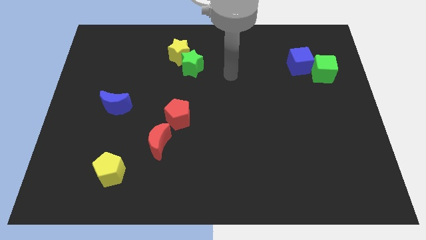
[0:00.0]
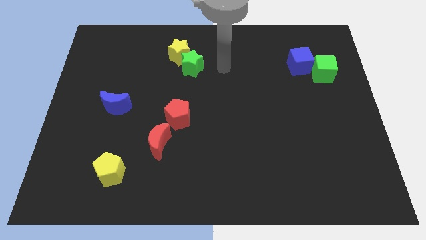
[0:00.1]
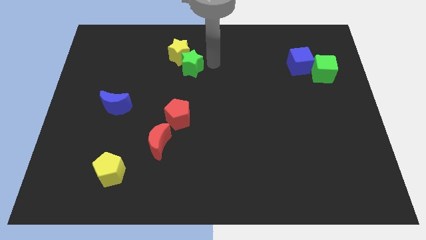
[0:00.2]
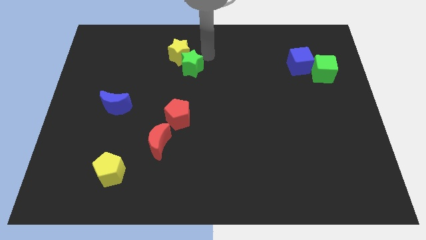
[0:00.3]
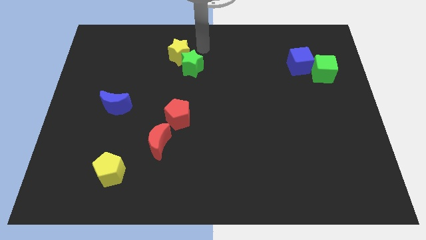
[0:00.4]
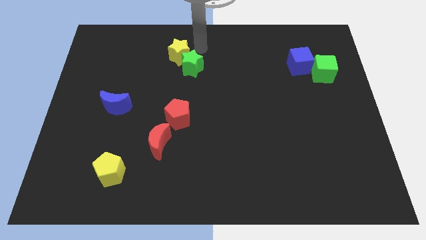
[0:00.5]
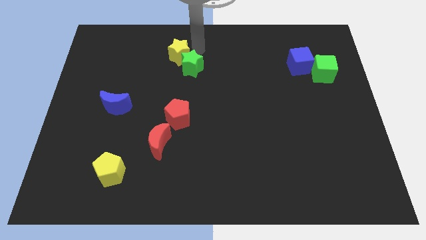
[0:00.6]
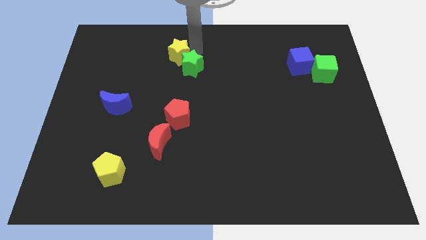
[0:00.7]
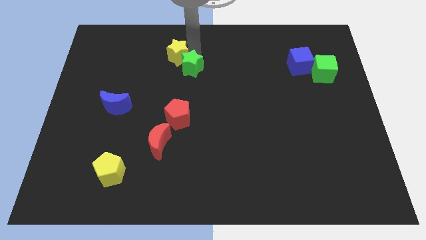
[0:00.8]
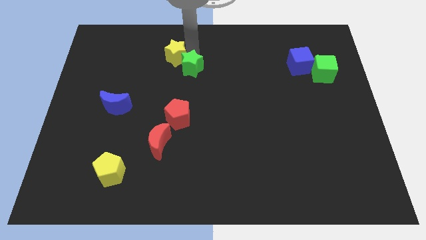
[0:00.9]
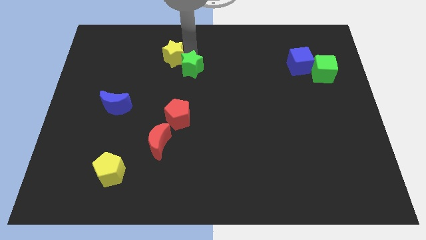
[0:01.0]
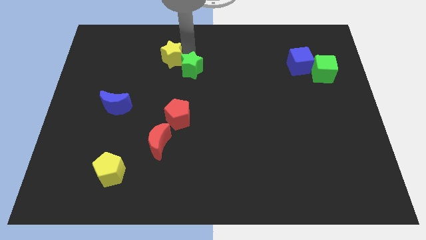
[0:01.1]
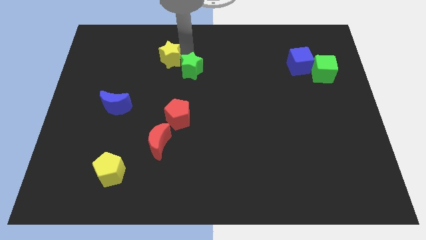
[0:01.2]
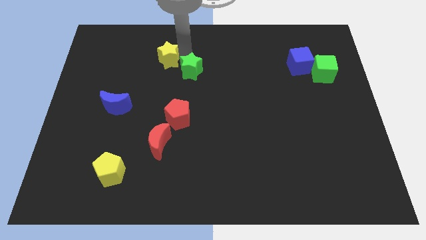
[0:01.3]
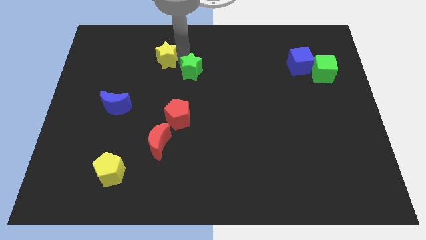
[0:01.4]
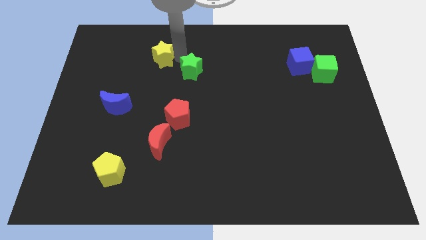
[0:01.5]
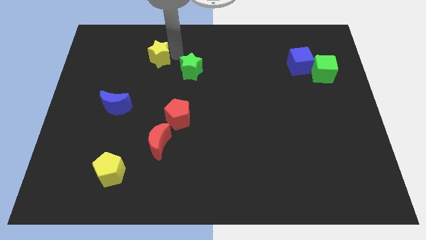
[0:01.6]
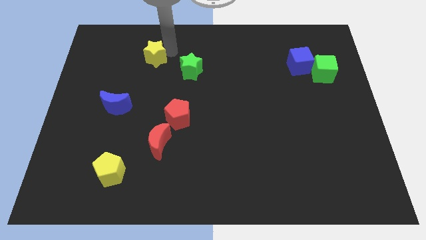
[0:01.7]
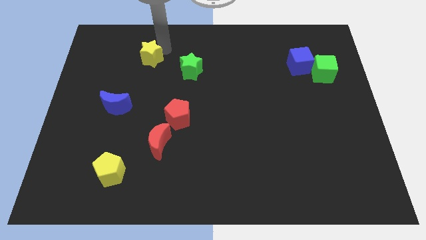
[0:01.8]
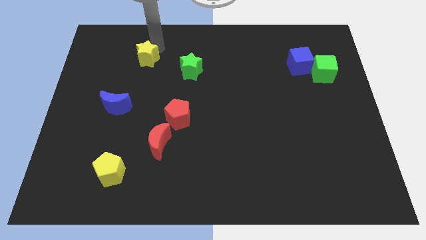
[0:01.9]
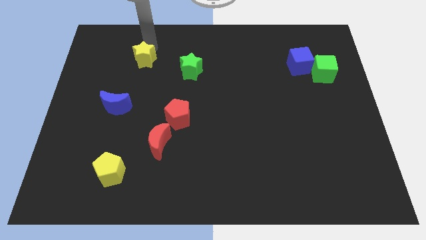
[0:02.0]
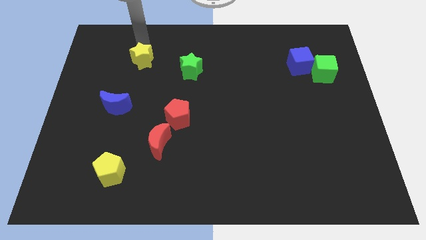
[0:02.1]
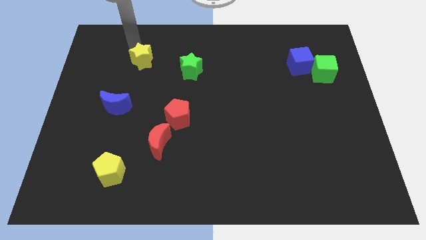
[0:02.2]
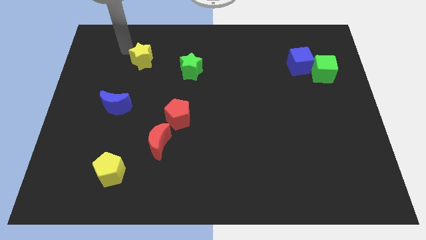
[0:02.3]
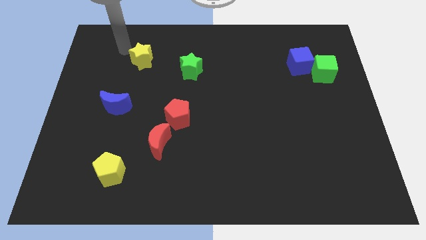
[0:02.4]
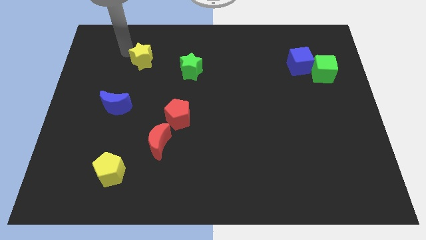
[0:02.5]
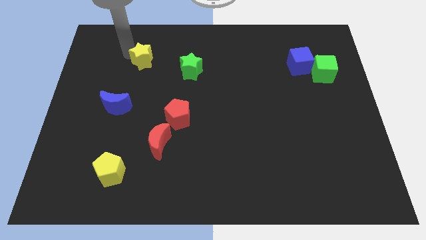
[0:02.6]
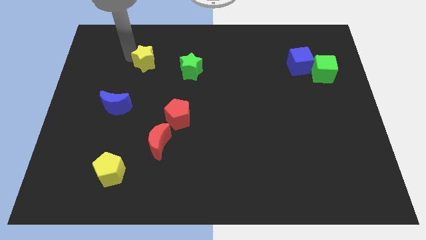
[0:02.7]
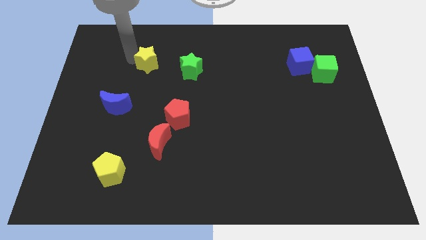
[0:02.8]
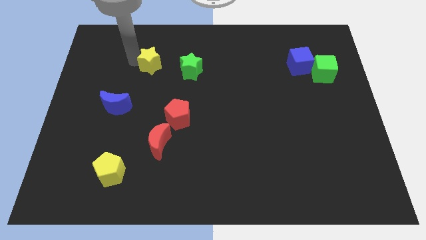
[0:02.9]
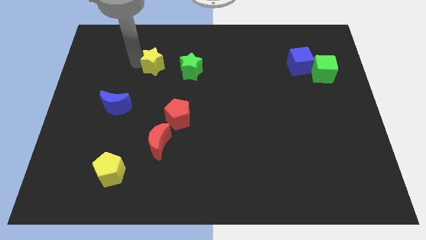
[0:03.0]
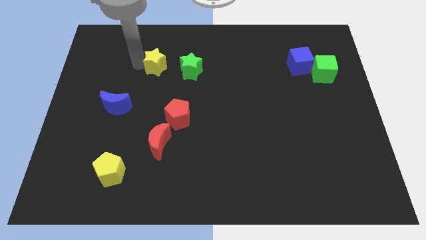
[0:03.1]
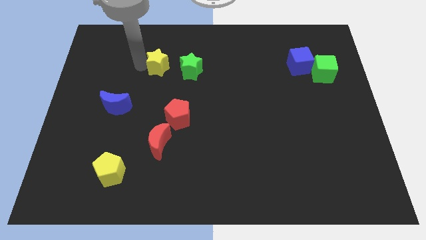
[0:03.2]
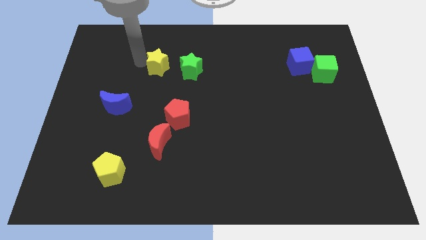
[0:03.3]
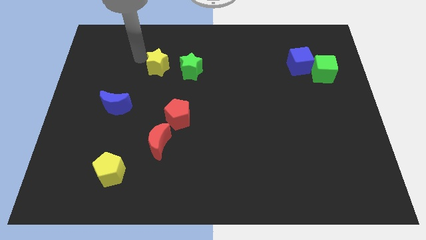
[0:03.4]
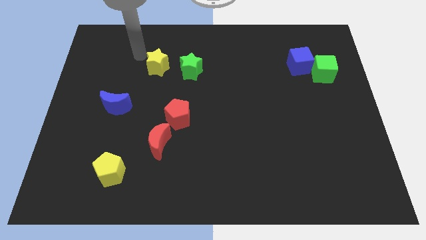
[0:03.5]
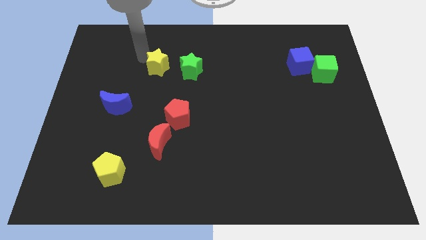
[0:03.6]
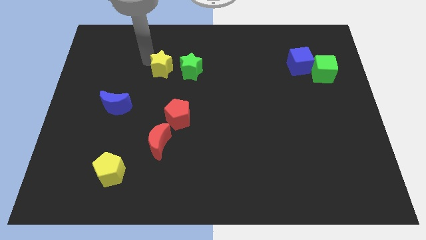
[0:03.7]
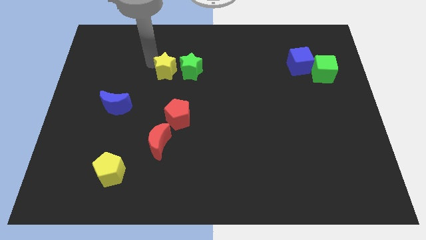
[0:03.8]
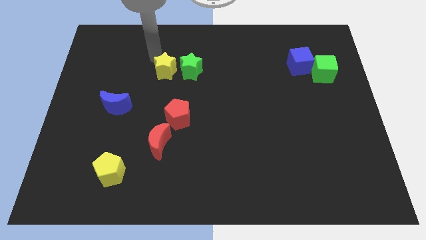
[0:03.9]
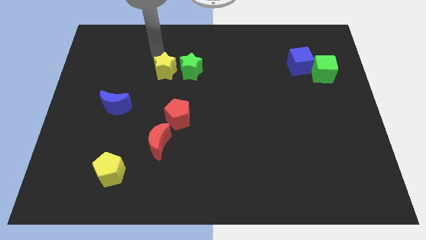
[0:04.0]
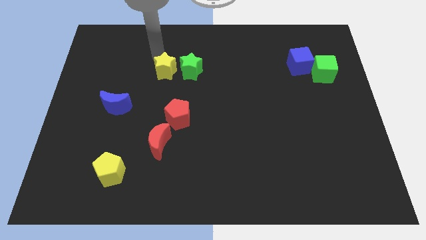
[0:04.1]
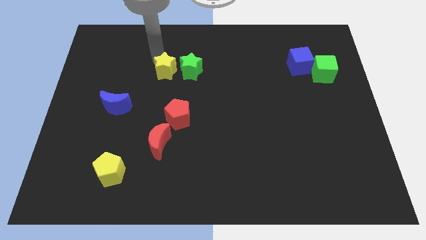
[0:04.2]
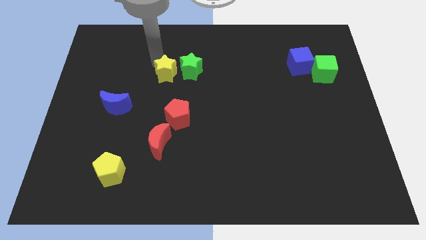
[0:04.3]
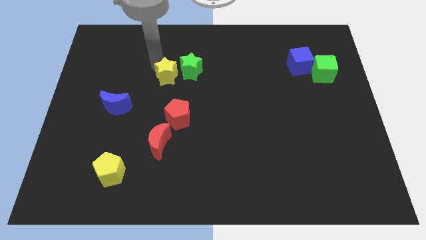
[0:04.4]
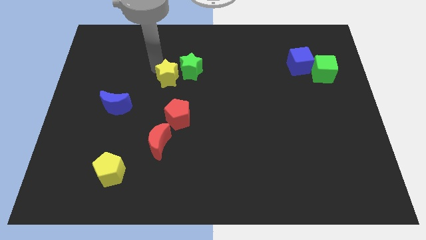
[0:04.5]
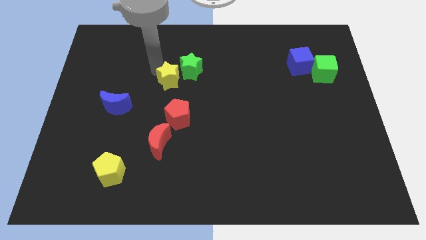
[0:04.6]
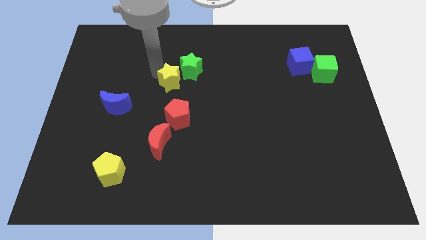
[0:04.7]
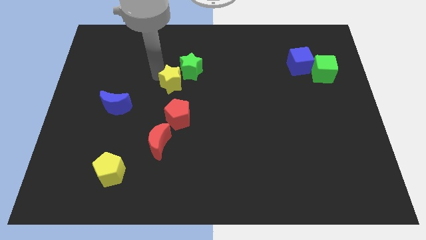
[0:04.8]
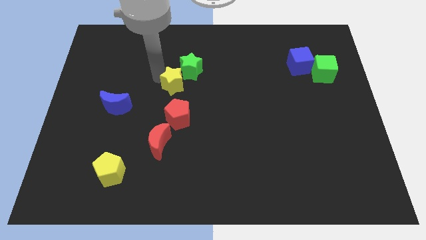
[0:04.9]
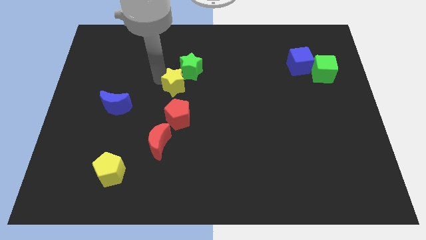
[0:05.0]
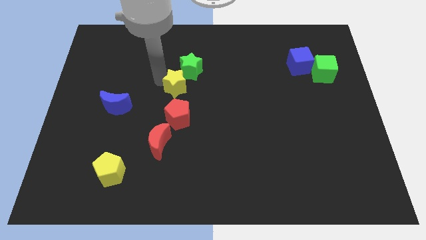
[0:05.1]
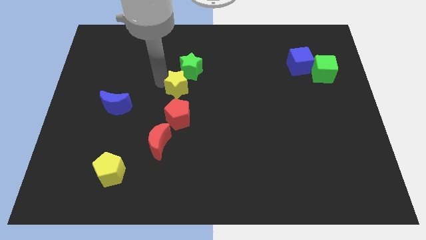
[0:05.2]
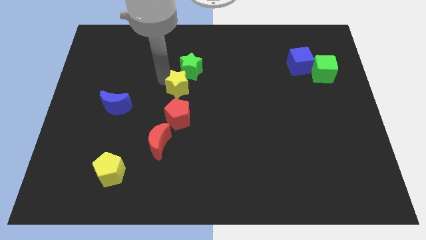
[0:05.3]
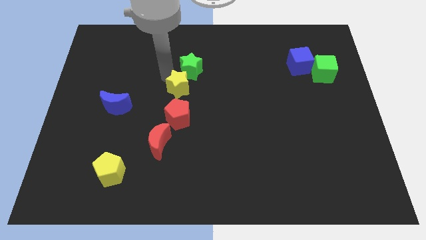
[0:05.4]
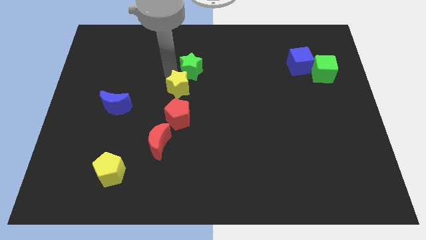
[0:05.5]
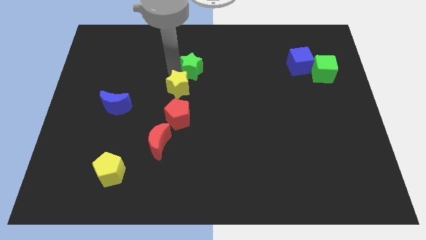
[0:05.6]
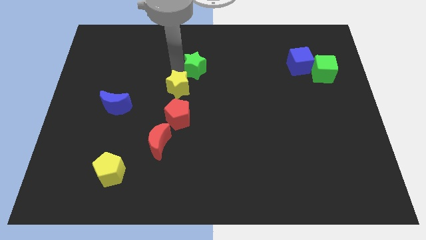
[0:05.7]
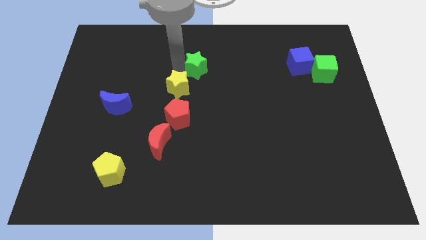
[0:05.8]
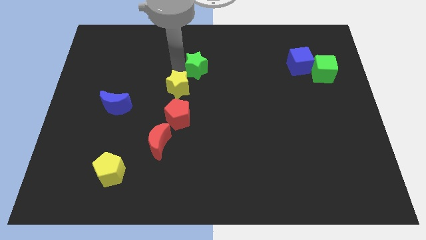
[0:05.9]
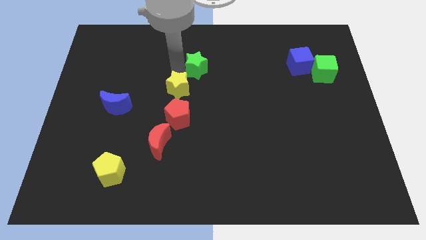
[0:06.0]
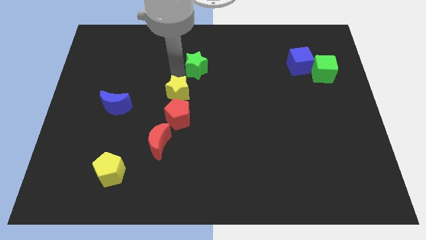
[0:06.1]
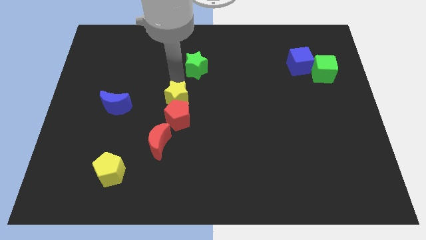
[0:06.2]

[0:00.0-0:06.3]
slide the yellow star close to the red pentagon

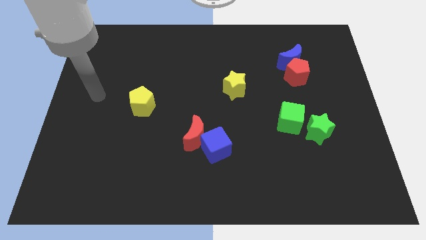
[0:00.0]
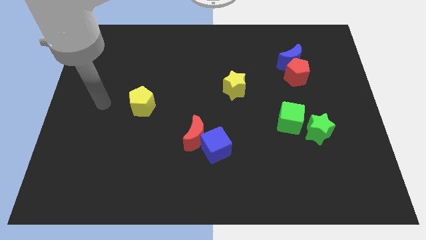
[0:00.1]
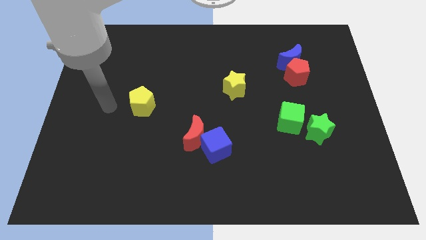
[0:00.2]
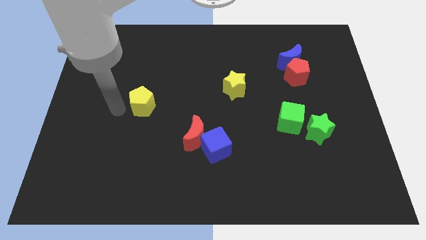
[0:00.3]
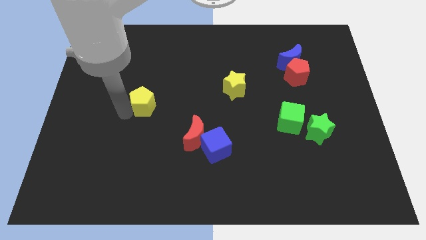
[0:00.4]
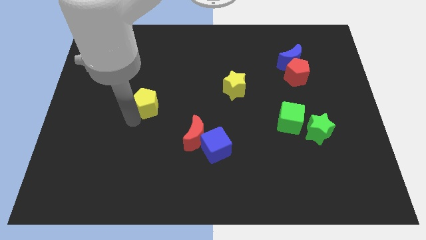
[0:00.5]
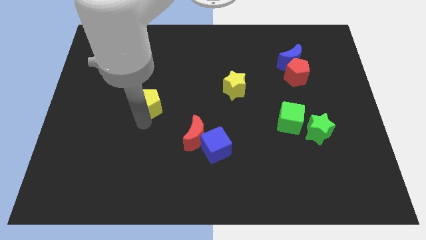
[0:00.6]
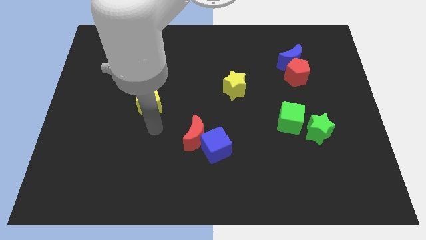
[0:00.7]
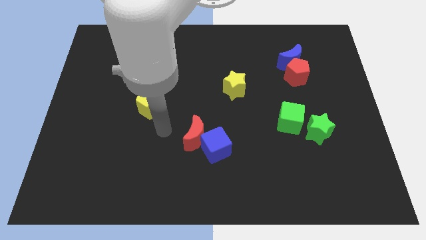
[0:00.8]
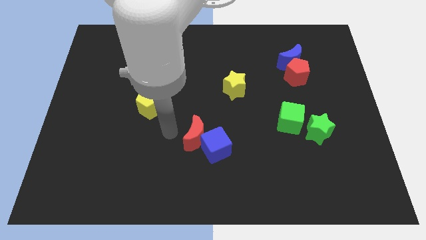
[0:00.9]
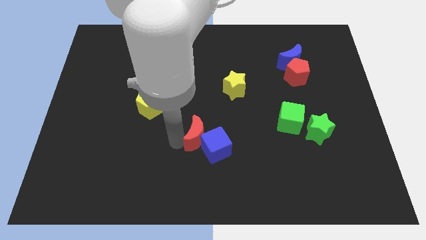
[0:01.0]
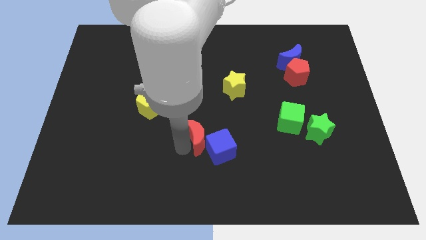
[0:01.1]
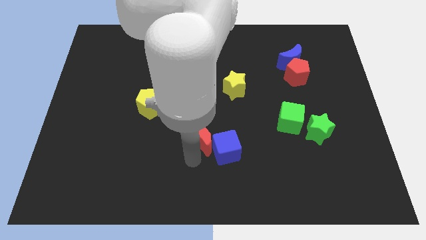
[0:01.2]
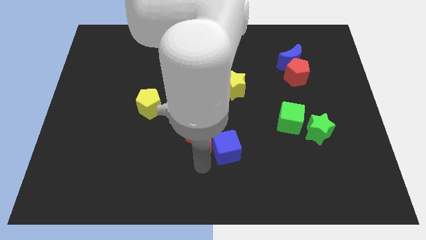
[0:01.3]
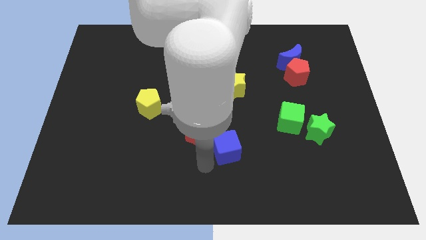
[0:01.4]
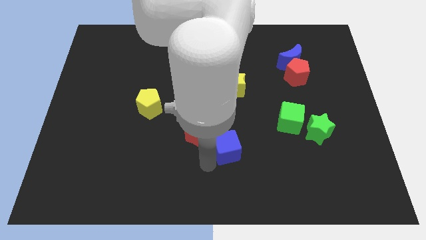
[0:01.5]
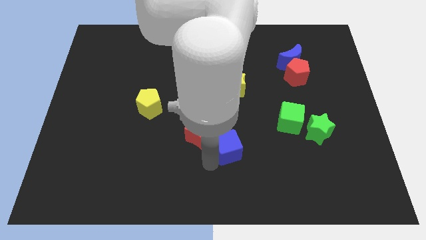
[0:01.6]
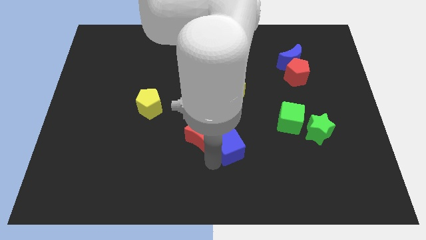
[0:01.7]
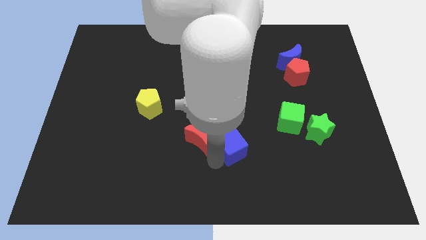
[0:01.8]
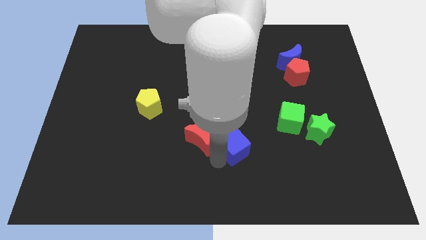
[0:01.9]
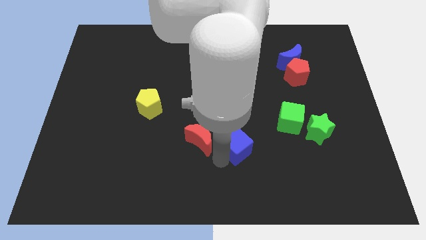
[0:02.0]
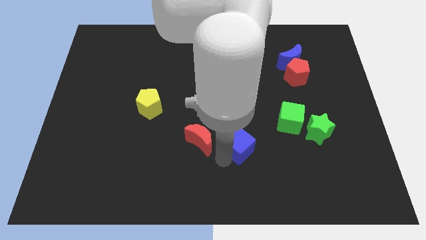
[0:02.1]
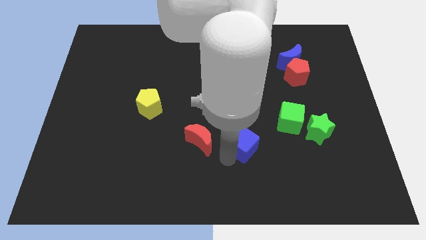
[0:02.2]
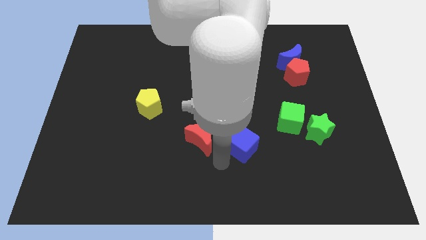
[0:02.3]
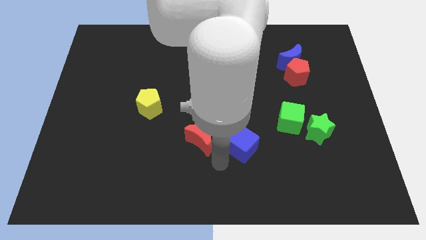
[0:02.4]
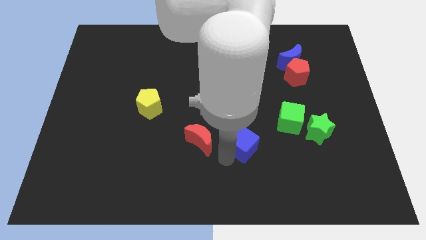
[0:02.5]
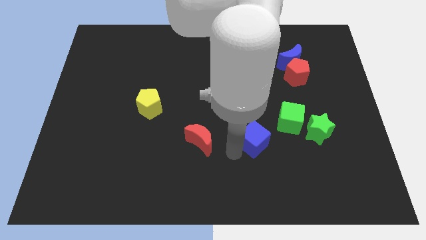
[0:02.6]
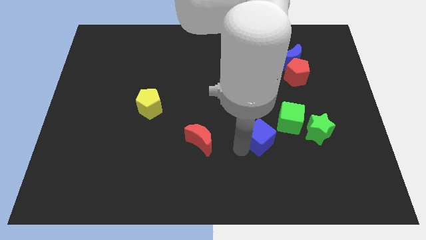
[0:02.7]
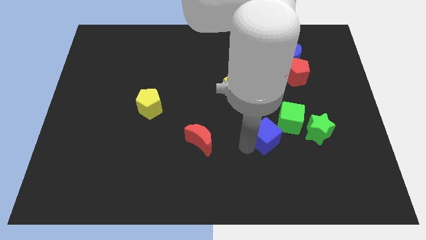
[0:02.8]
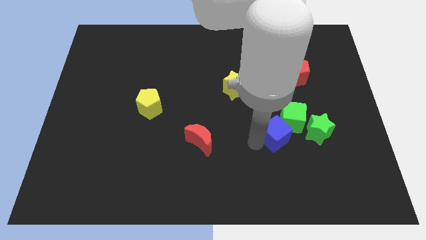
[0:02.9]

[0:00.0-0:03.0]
move the blue cube next to the green cube
